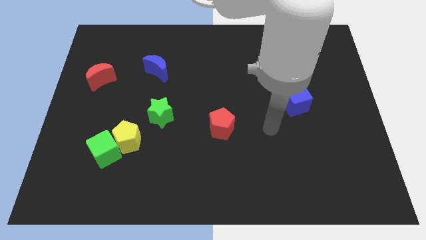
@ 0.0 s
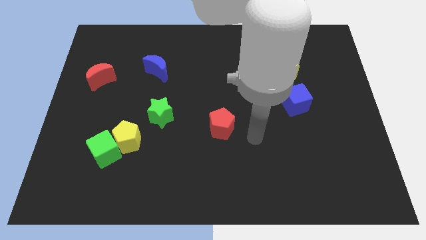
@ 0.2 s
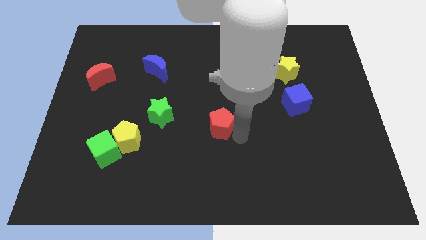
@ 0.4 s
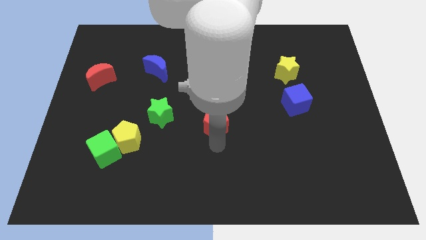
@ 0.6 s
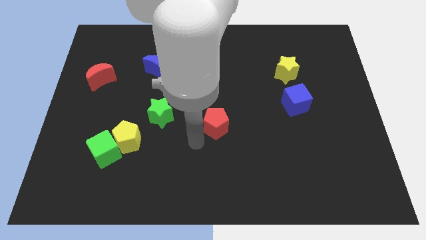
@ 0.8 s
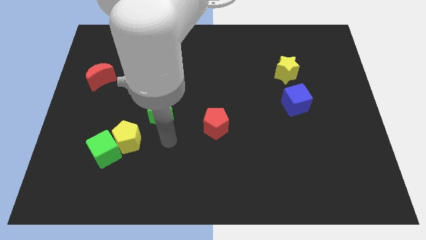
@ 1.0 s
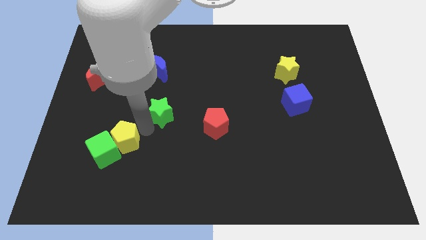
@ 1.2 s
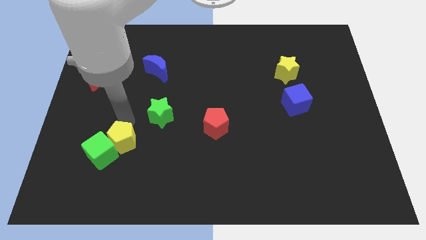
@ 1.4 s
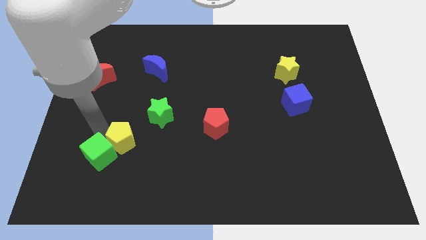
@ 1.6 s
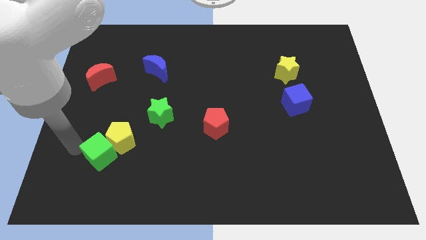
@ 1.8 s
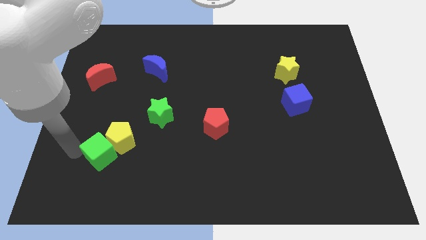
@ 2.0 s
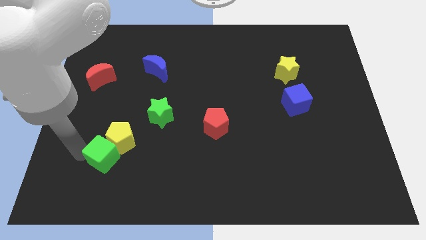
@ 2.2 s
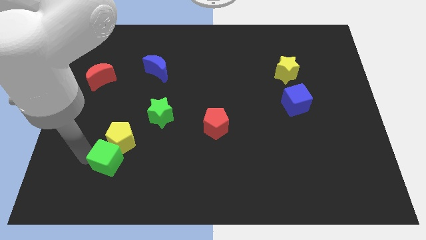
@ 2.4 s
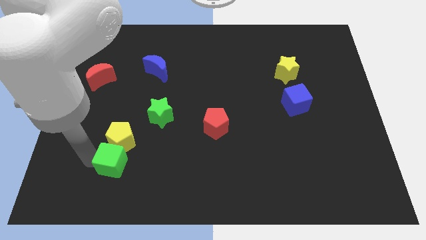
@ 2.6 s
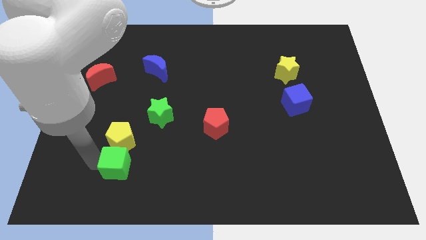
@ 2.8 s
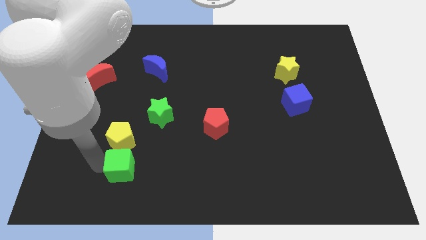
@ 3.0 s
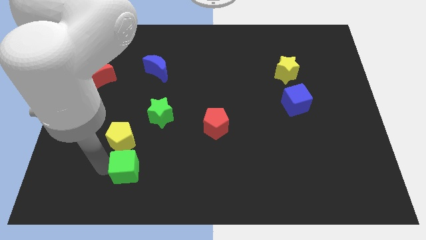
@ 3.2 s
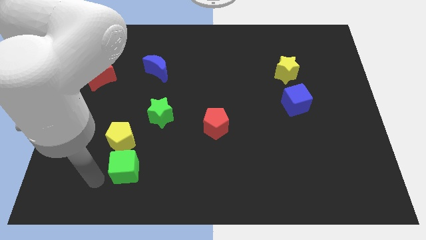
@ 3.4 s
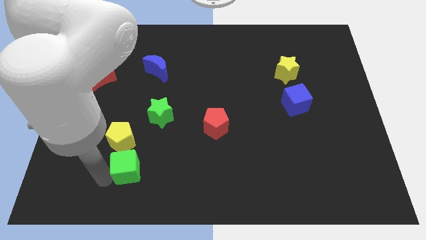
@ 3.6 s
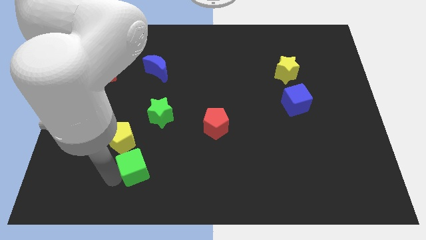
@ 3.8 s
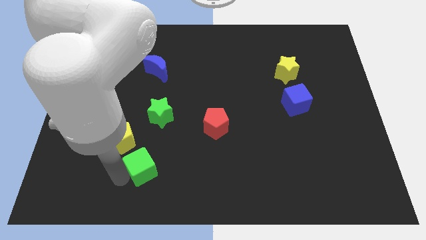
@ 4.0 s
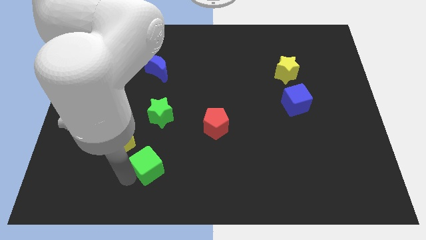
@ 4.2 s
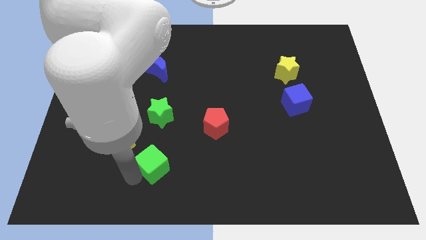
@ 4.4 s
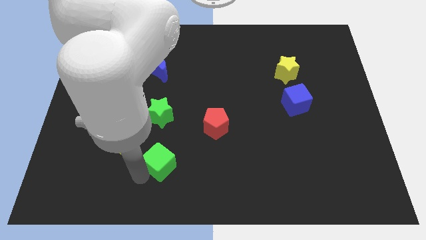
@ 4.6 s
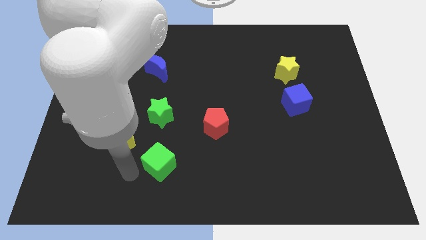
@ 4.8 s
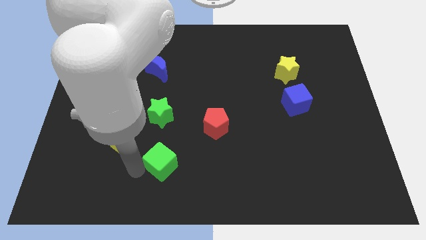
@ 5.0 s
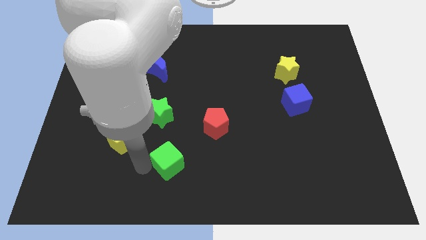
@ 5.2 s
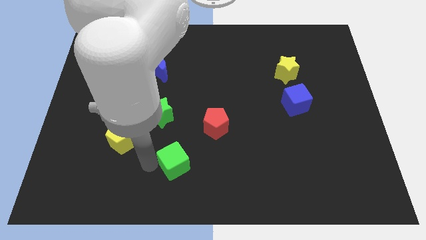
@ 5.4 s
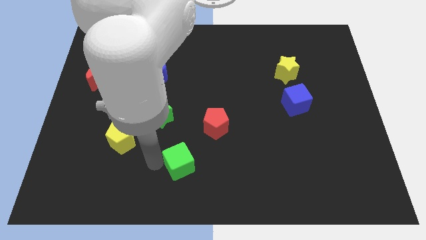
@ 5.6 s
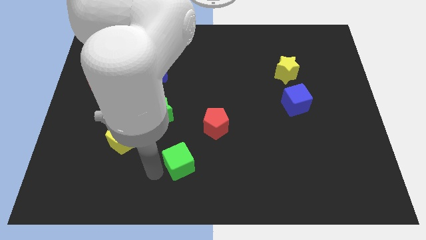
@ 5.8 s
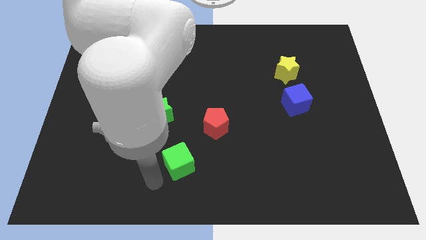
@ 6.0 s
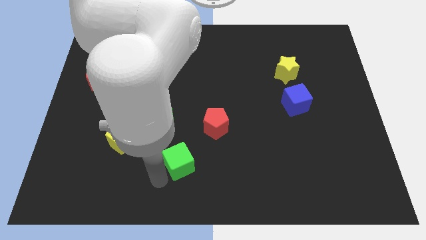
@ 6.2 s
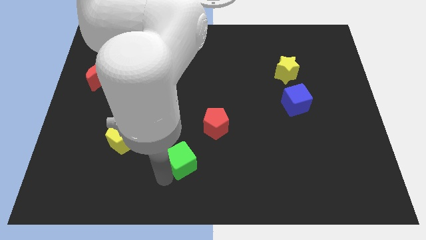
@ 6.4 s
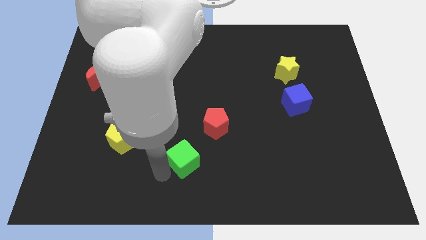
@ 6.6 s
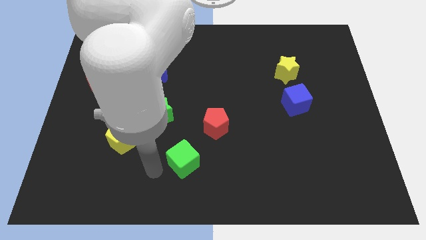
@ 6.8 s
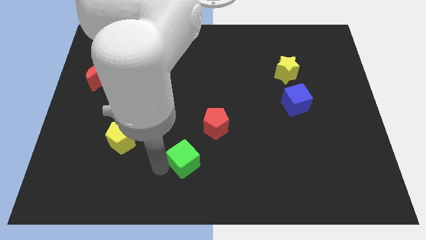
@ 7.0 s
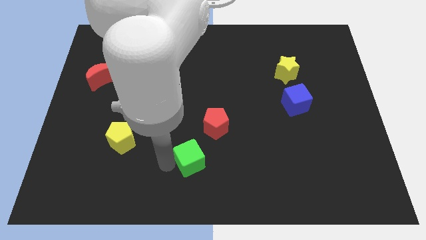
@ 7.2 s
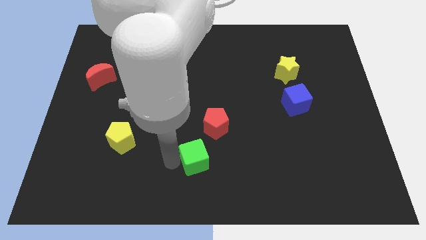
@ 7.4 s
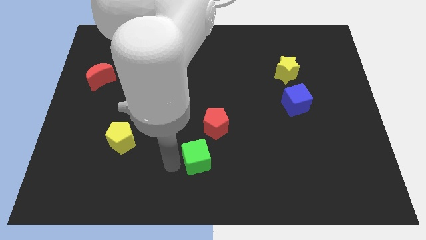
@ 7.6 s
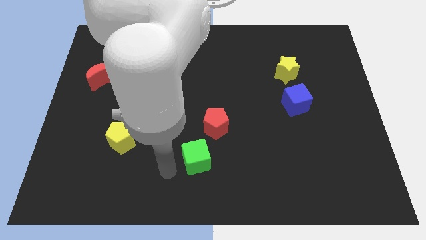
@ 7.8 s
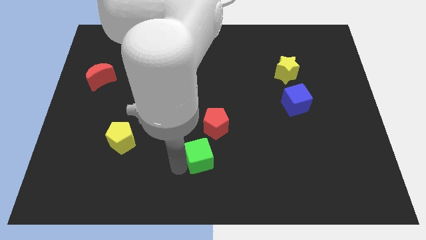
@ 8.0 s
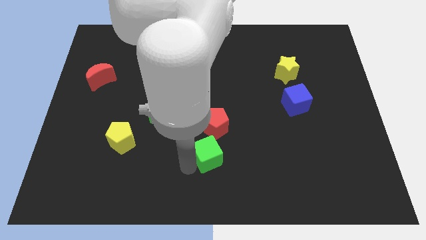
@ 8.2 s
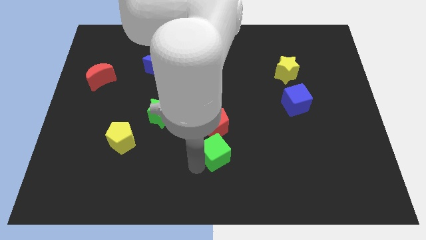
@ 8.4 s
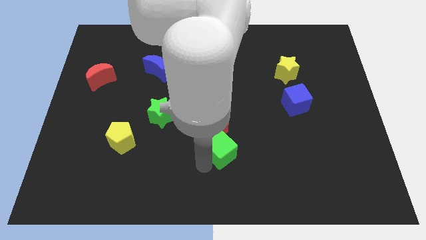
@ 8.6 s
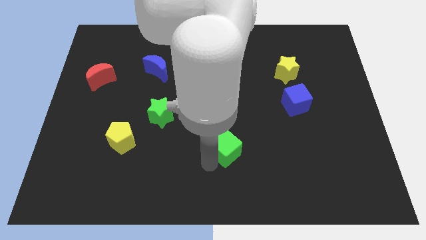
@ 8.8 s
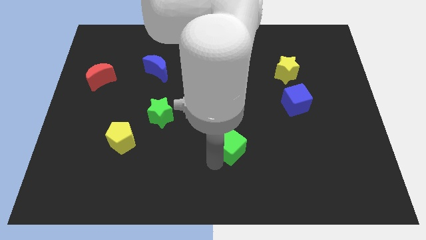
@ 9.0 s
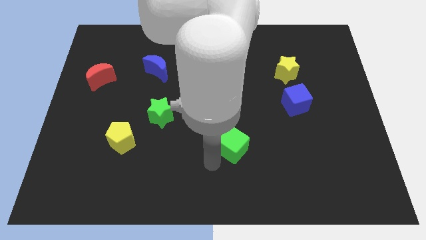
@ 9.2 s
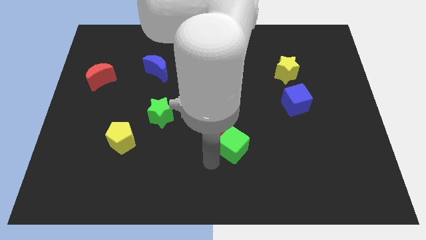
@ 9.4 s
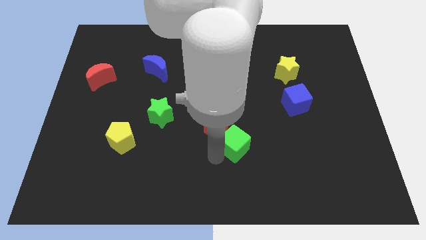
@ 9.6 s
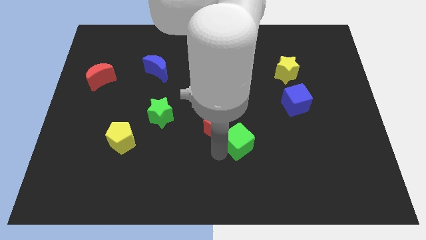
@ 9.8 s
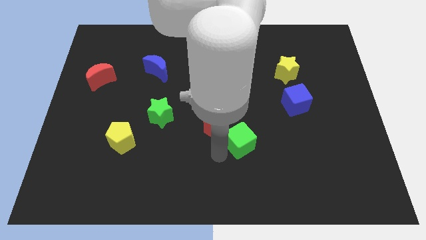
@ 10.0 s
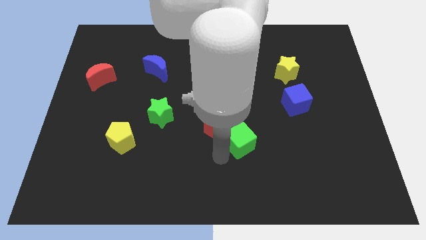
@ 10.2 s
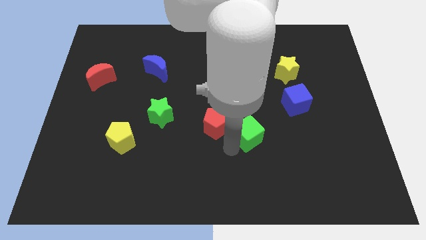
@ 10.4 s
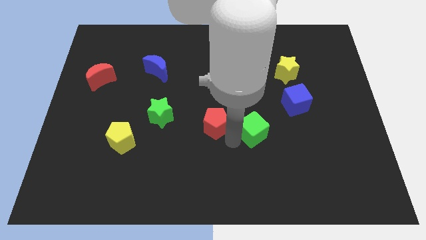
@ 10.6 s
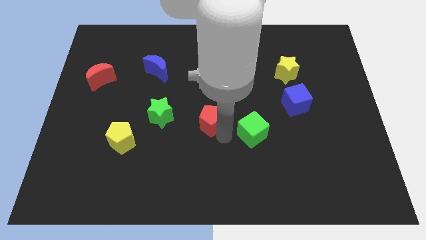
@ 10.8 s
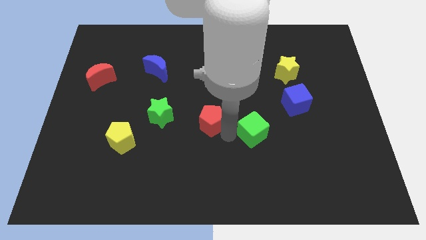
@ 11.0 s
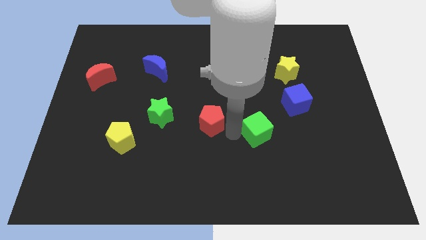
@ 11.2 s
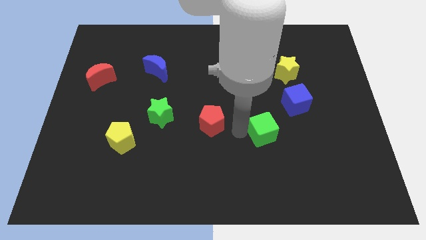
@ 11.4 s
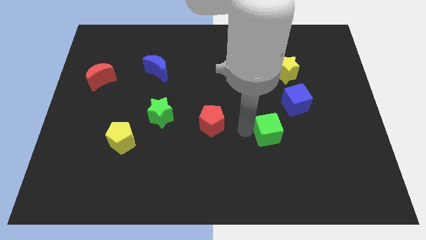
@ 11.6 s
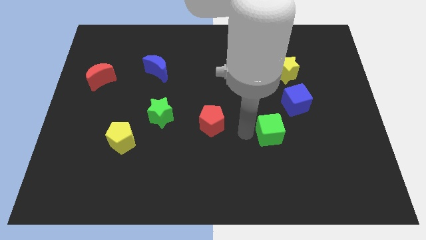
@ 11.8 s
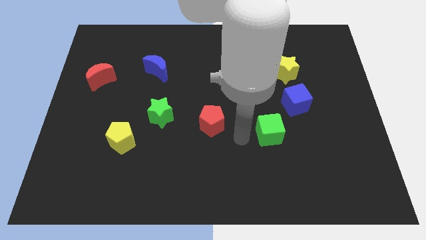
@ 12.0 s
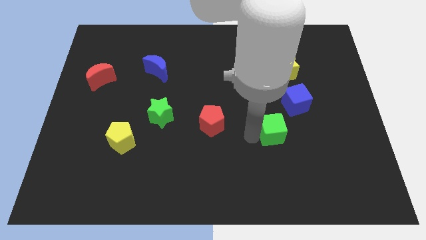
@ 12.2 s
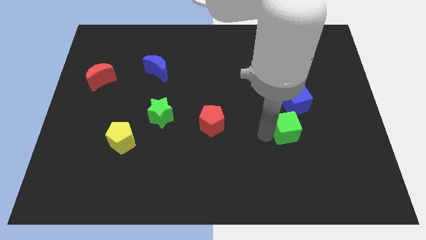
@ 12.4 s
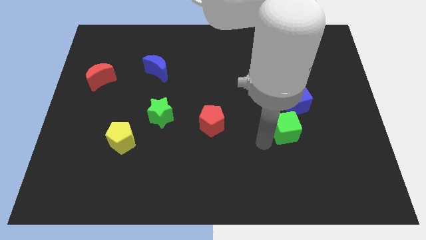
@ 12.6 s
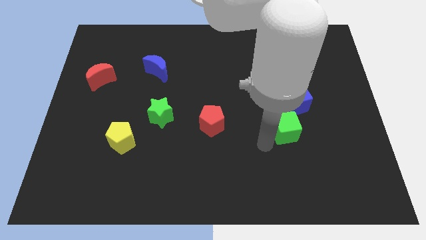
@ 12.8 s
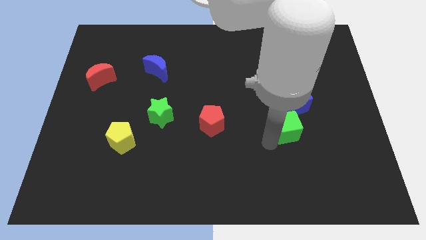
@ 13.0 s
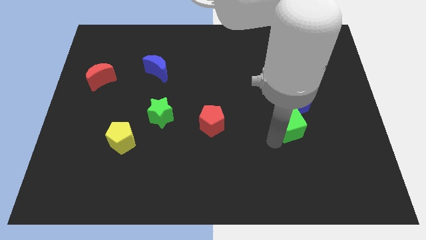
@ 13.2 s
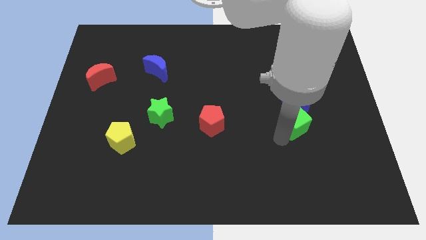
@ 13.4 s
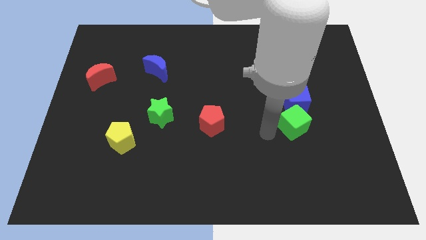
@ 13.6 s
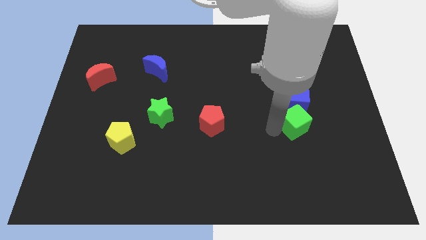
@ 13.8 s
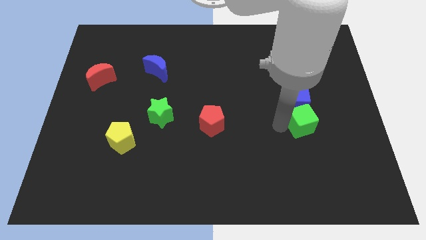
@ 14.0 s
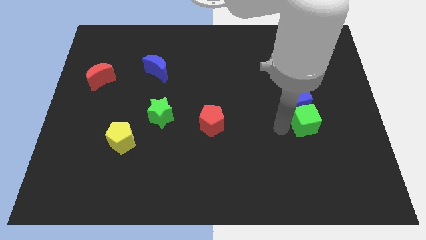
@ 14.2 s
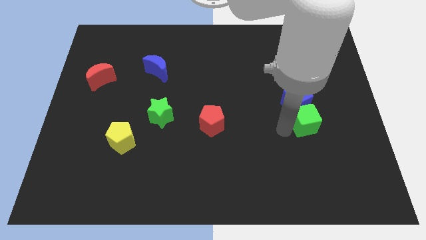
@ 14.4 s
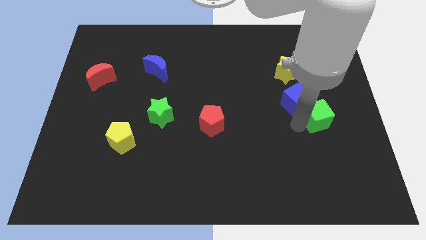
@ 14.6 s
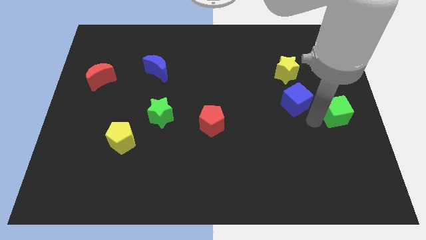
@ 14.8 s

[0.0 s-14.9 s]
put the green cube to the right side
